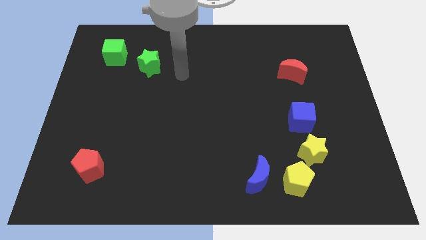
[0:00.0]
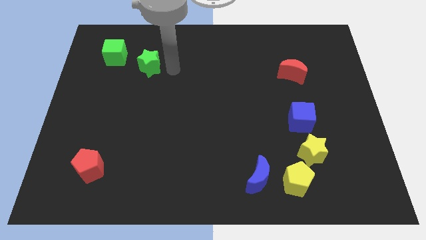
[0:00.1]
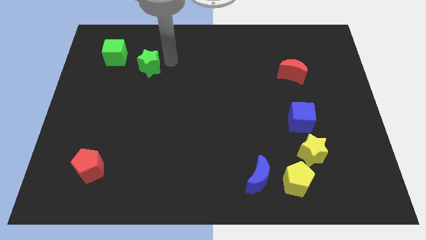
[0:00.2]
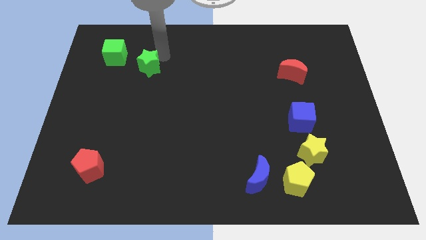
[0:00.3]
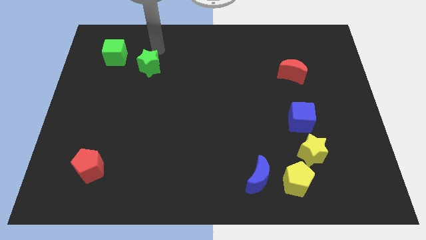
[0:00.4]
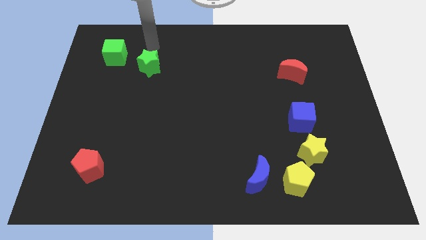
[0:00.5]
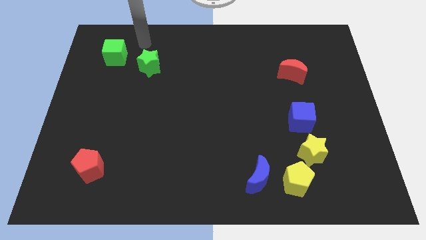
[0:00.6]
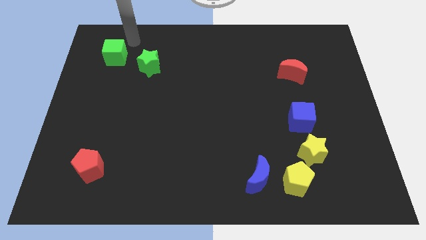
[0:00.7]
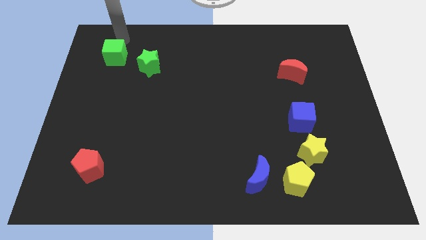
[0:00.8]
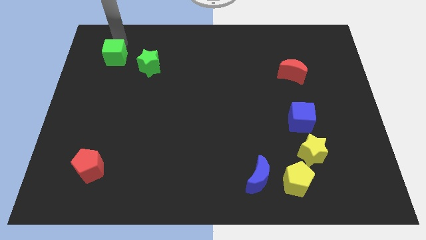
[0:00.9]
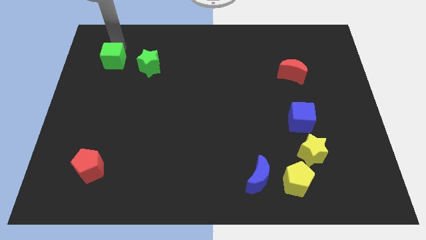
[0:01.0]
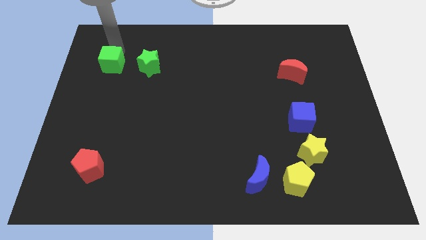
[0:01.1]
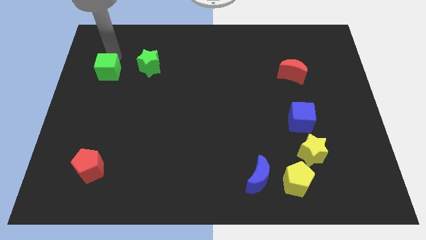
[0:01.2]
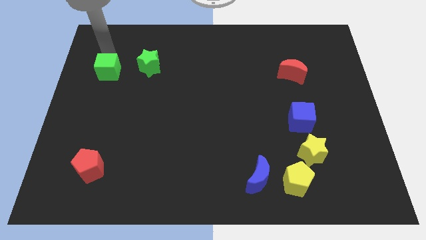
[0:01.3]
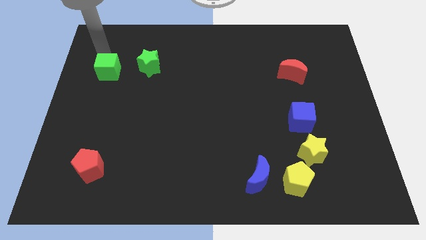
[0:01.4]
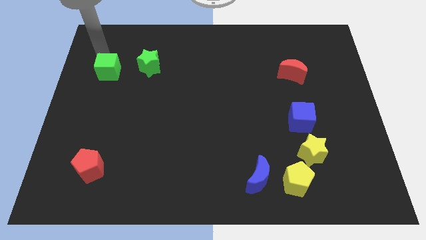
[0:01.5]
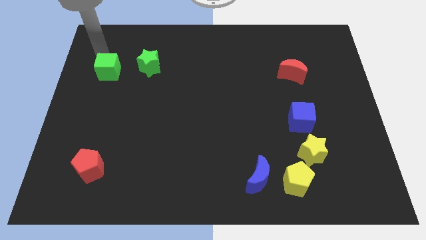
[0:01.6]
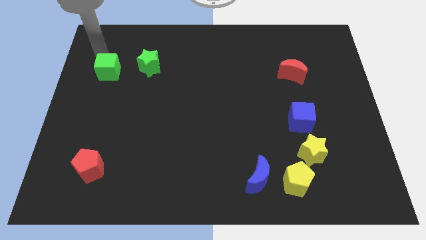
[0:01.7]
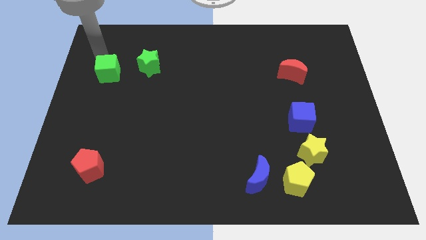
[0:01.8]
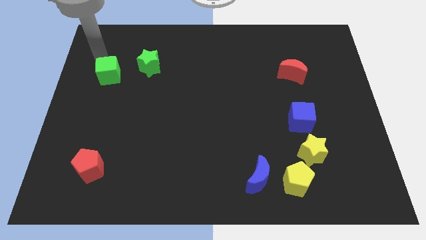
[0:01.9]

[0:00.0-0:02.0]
move the green cube a bit downwards

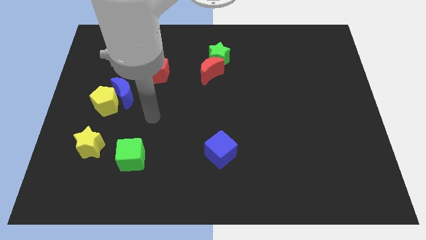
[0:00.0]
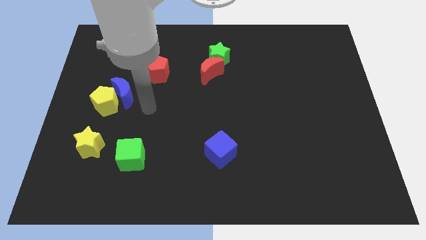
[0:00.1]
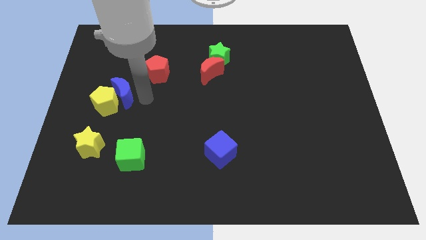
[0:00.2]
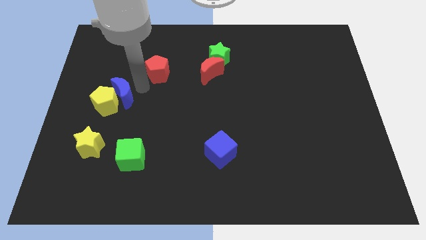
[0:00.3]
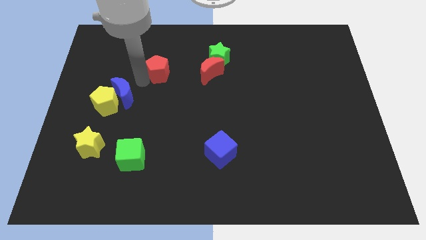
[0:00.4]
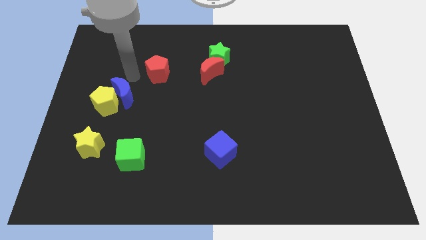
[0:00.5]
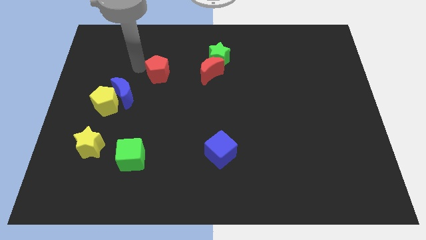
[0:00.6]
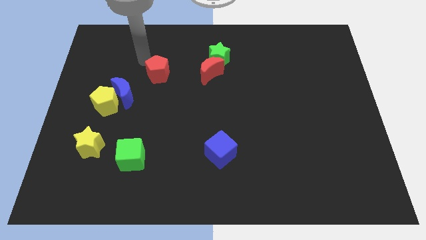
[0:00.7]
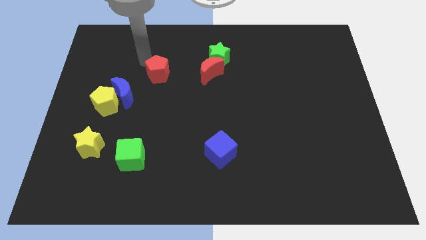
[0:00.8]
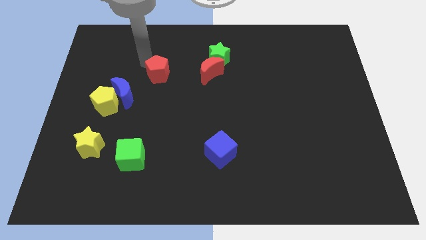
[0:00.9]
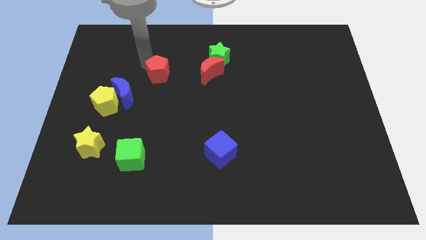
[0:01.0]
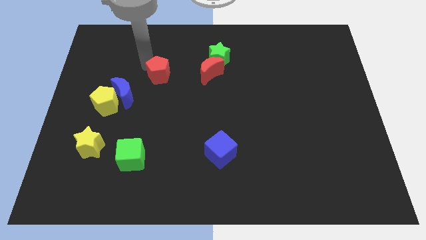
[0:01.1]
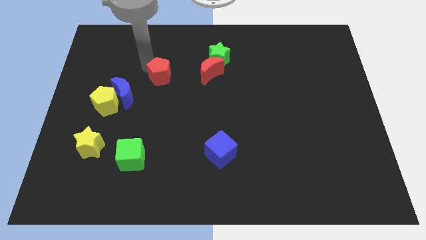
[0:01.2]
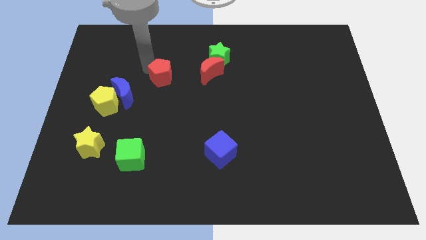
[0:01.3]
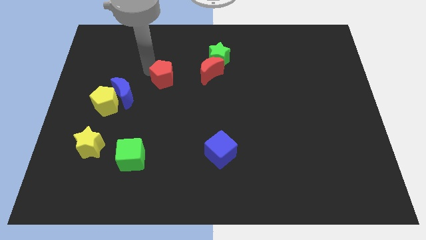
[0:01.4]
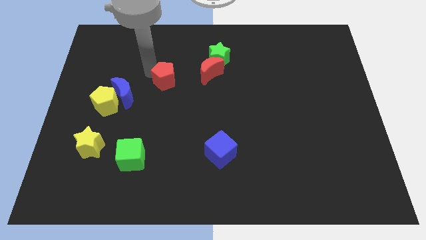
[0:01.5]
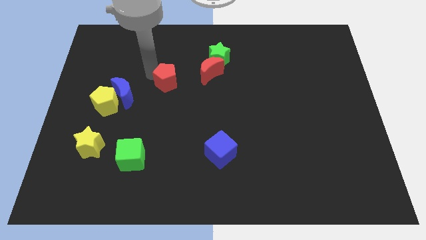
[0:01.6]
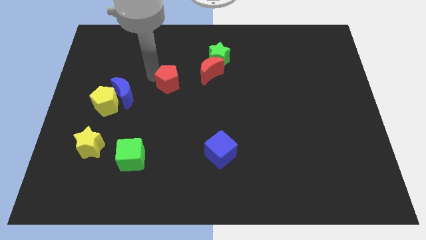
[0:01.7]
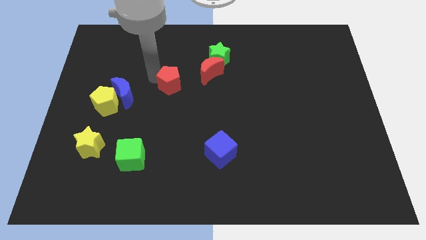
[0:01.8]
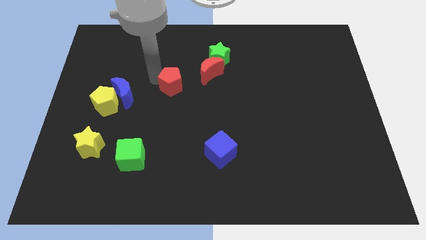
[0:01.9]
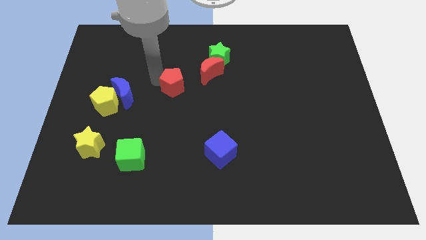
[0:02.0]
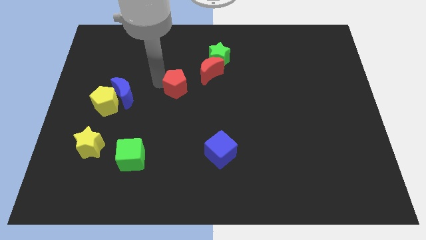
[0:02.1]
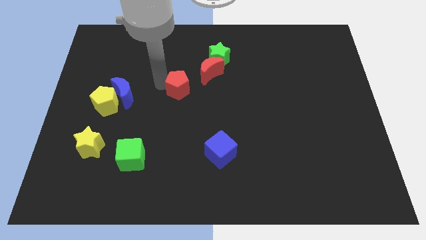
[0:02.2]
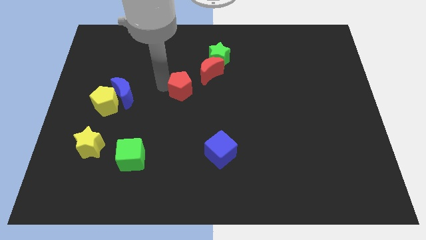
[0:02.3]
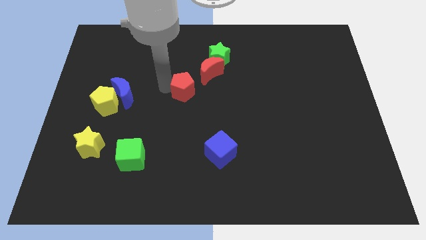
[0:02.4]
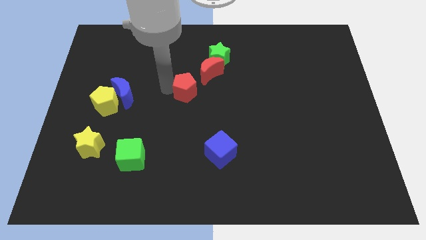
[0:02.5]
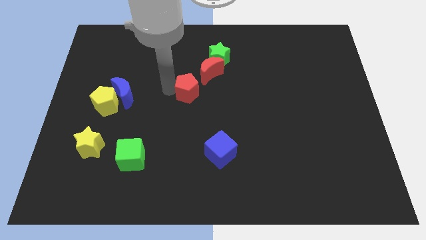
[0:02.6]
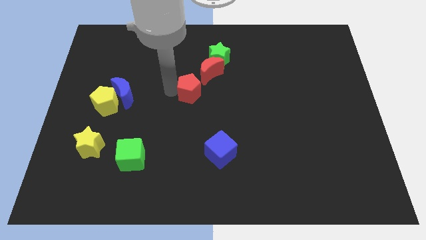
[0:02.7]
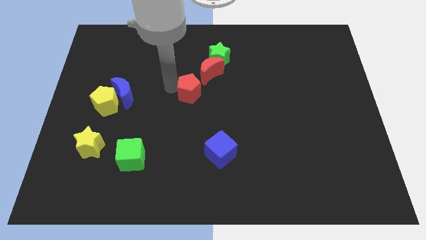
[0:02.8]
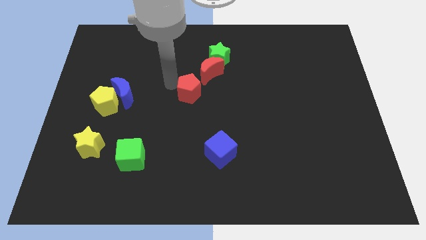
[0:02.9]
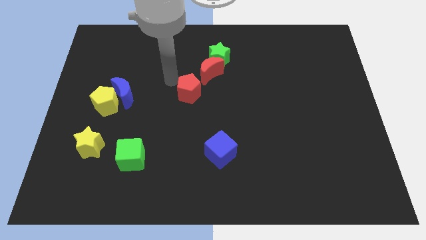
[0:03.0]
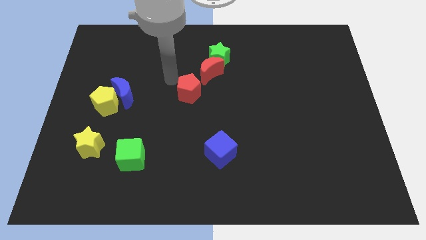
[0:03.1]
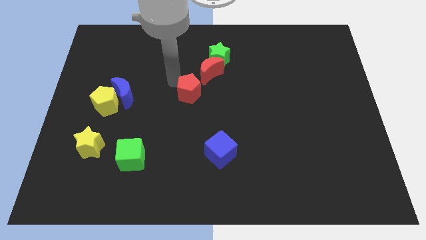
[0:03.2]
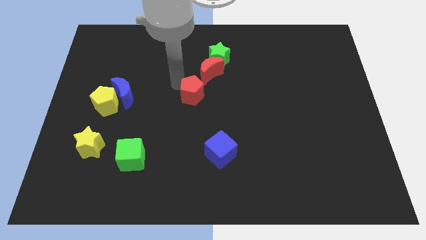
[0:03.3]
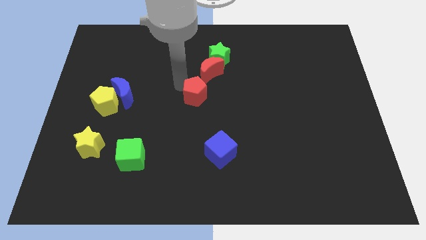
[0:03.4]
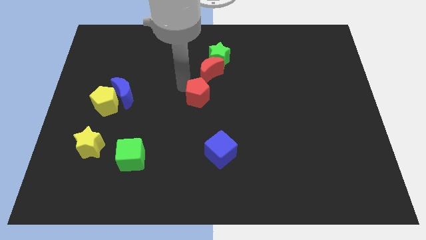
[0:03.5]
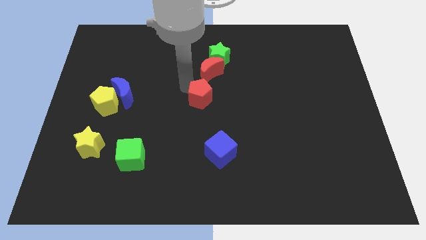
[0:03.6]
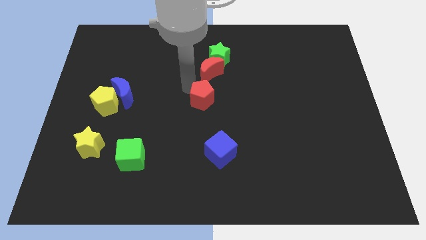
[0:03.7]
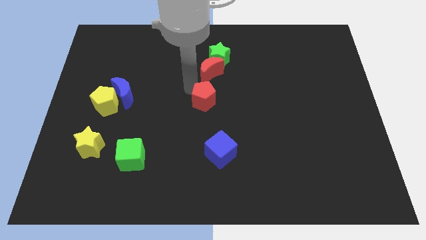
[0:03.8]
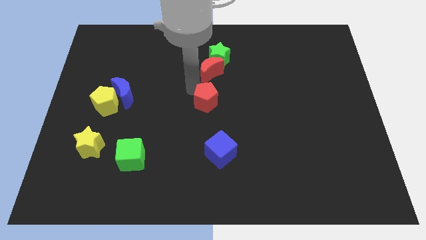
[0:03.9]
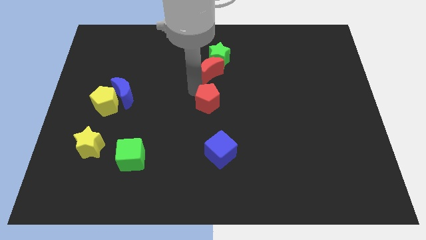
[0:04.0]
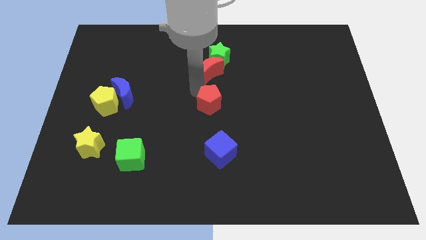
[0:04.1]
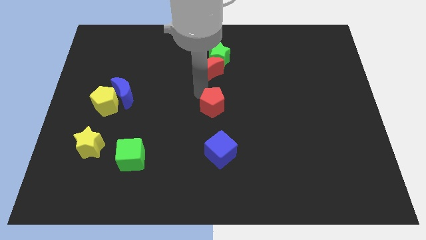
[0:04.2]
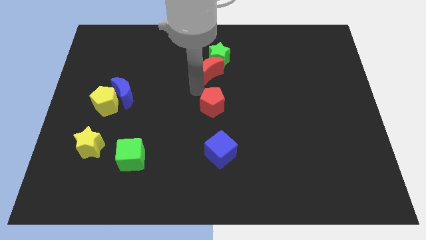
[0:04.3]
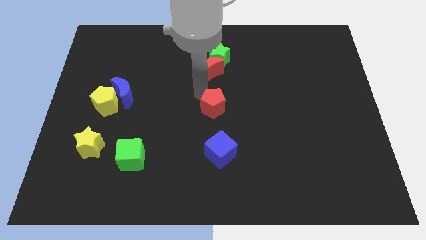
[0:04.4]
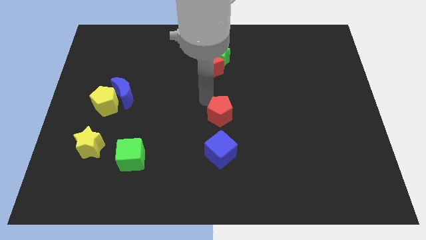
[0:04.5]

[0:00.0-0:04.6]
move the red pentagon down and to the right diagonally

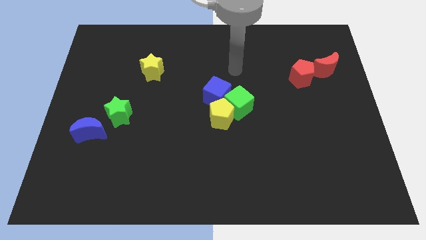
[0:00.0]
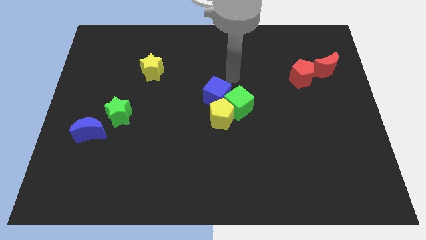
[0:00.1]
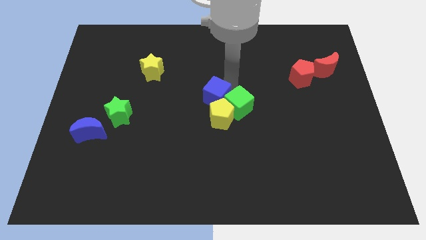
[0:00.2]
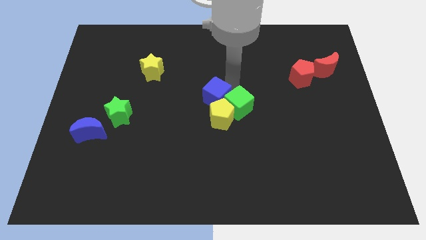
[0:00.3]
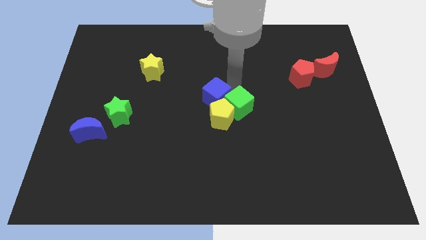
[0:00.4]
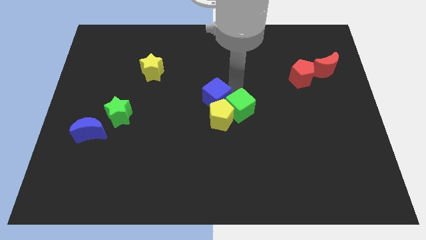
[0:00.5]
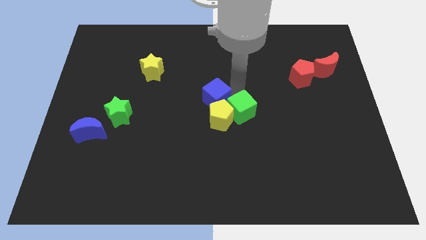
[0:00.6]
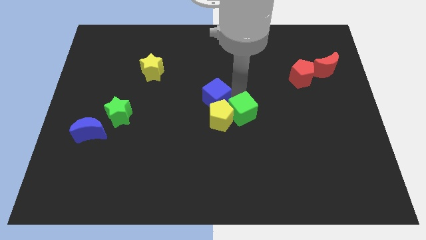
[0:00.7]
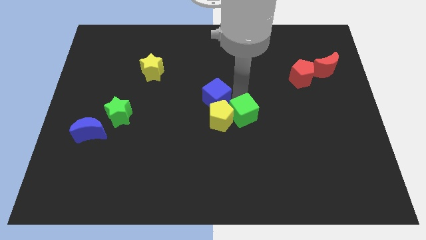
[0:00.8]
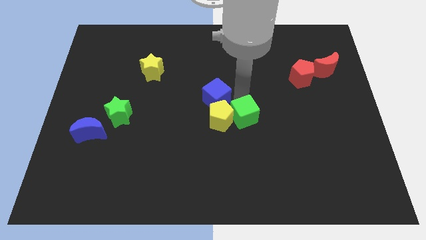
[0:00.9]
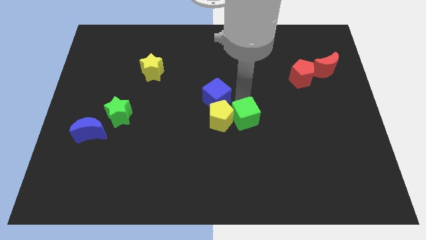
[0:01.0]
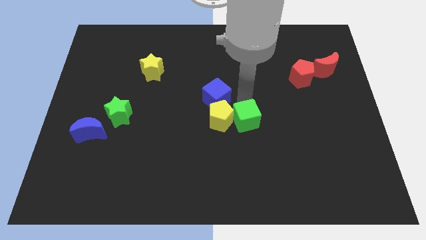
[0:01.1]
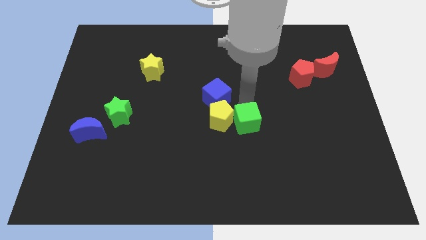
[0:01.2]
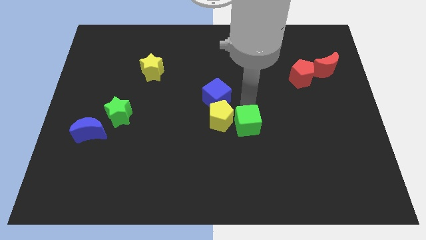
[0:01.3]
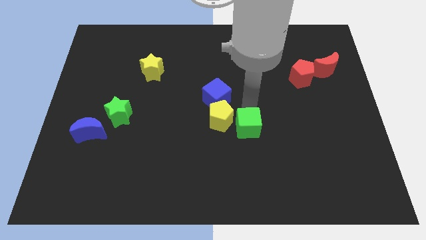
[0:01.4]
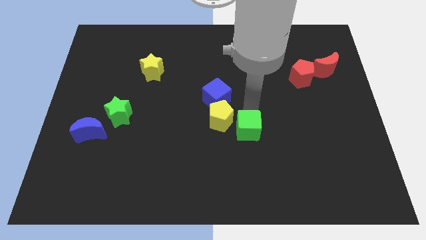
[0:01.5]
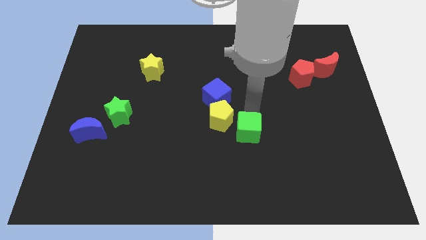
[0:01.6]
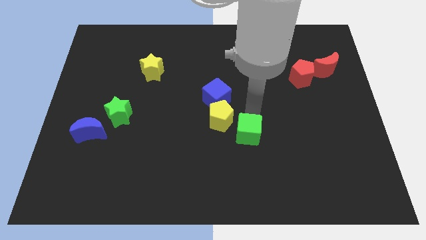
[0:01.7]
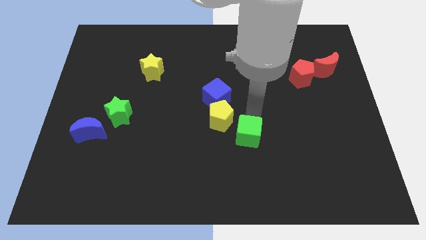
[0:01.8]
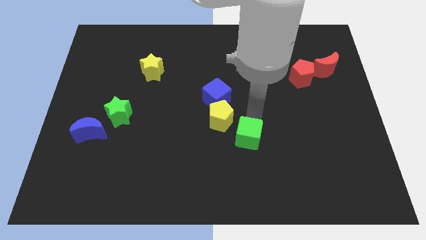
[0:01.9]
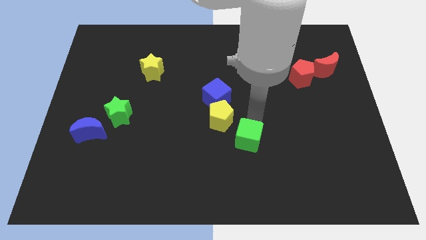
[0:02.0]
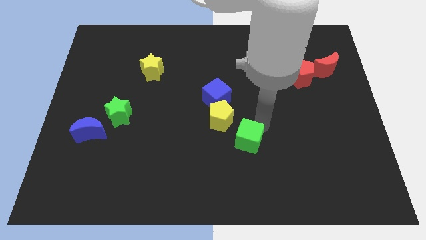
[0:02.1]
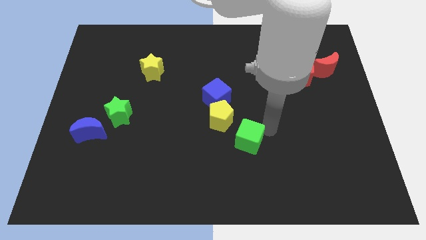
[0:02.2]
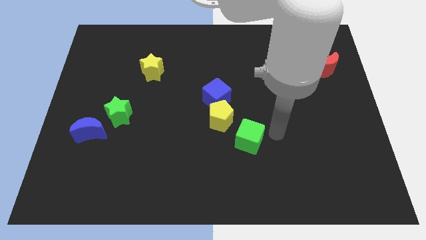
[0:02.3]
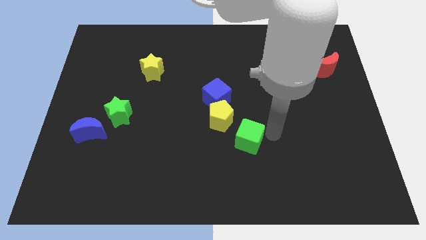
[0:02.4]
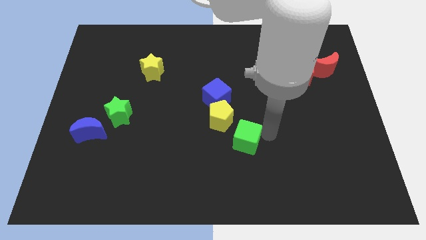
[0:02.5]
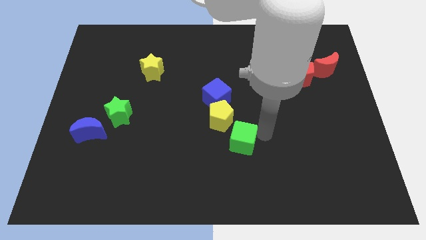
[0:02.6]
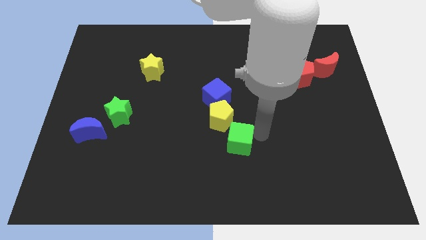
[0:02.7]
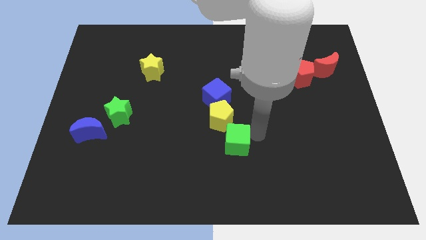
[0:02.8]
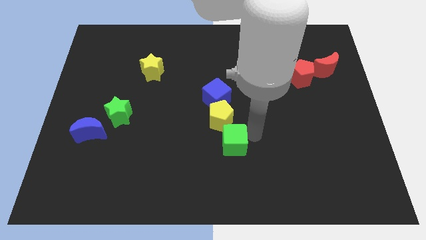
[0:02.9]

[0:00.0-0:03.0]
slightly push the green cube down and then to the left
